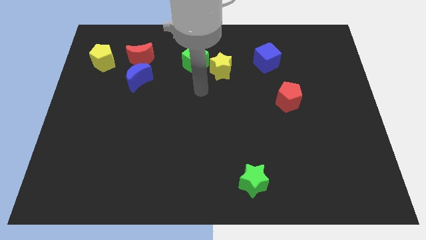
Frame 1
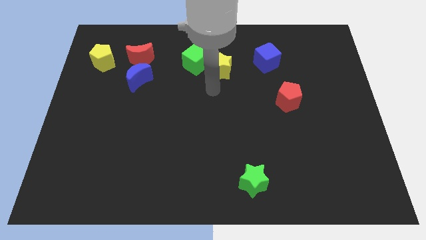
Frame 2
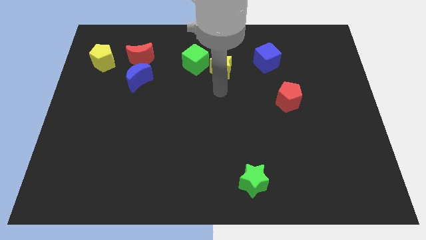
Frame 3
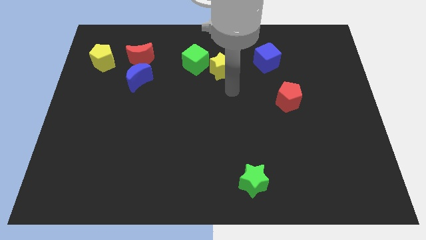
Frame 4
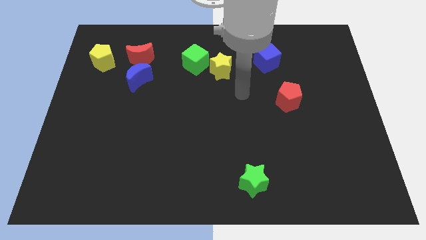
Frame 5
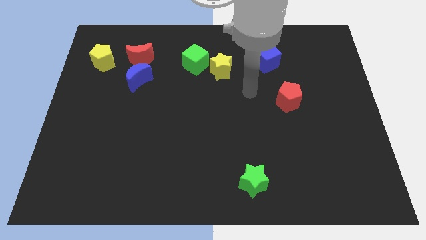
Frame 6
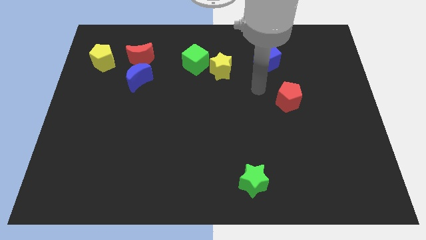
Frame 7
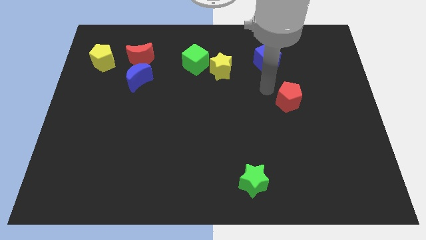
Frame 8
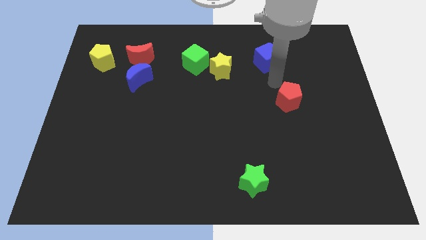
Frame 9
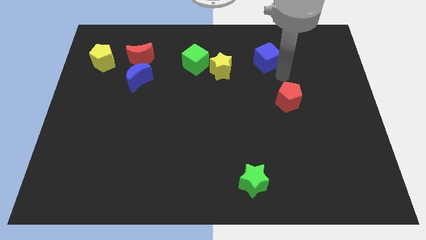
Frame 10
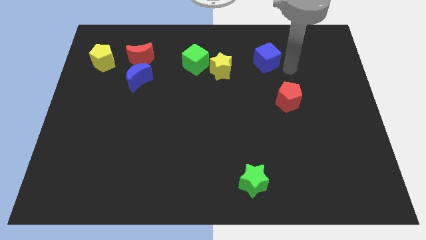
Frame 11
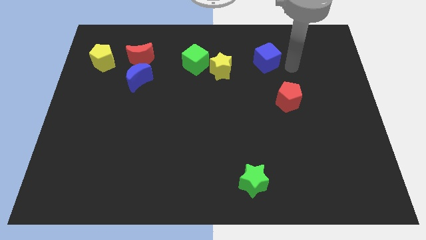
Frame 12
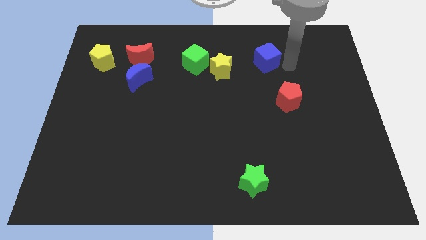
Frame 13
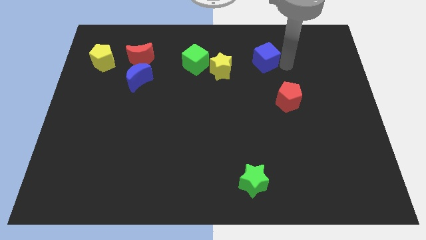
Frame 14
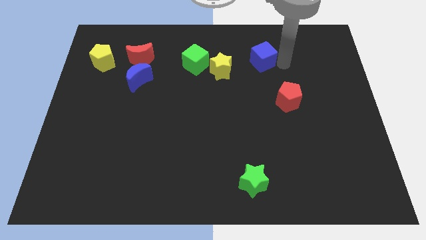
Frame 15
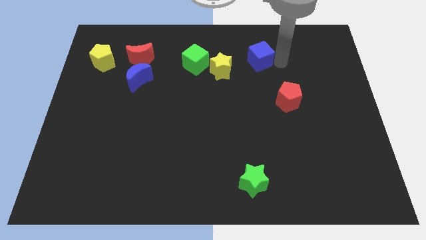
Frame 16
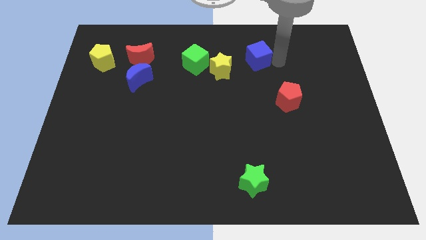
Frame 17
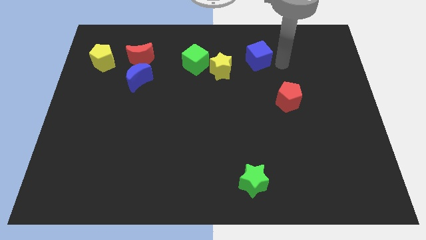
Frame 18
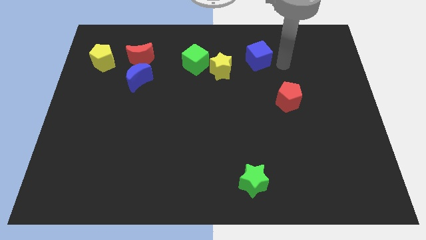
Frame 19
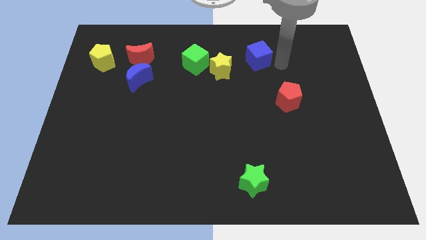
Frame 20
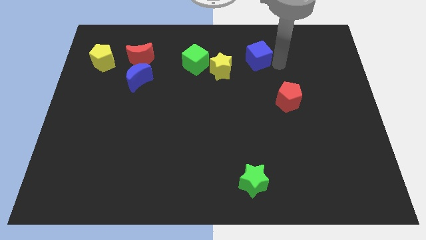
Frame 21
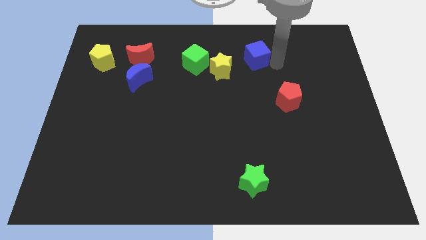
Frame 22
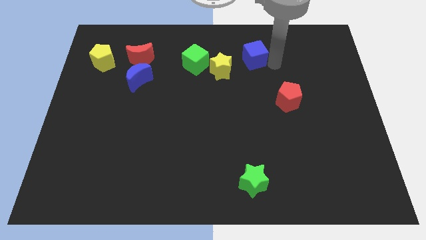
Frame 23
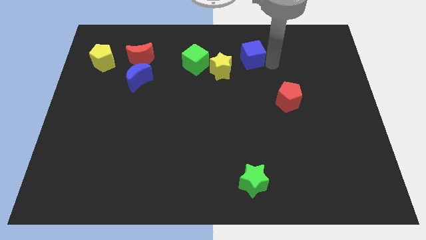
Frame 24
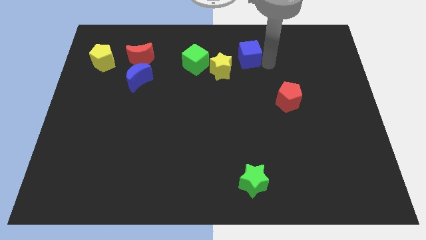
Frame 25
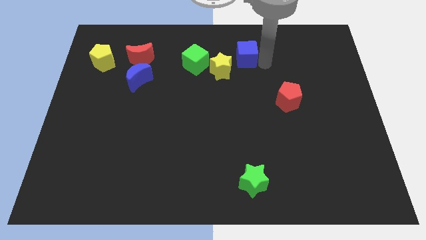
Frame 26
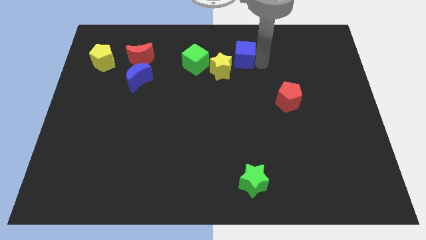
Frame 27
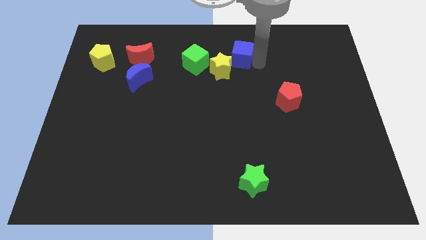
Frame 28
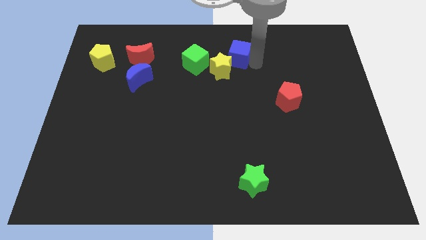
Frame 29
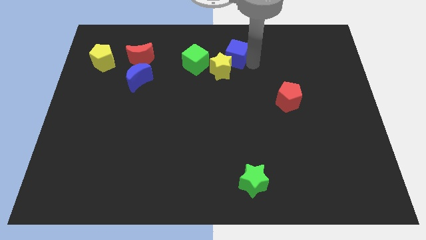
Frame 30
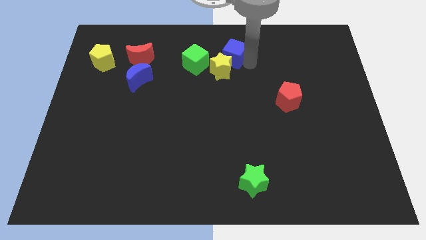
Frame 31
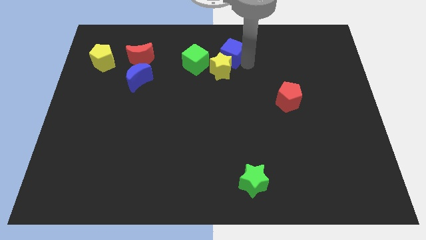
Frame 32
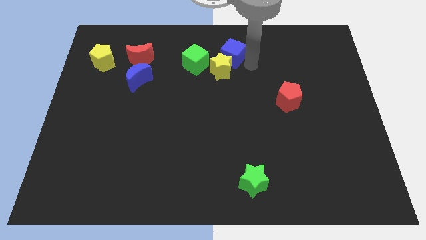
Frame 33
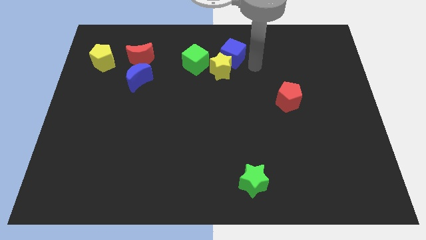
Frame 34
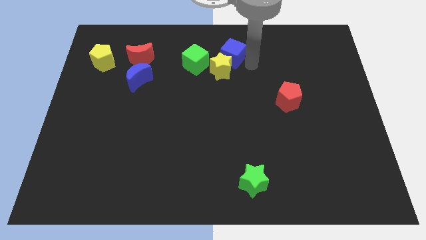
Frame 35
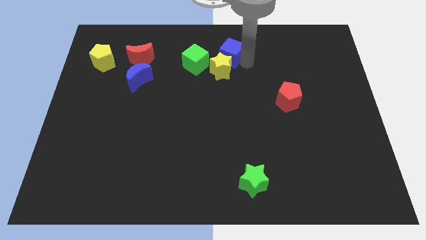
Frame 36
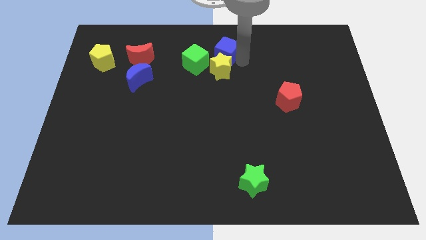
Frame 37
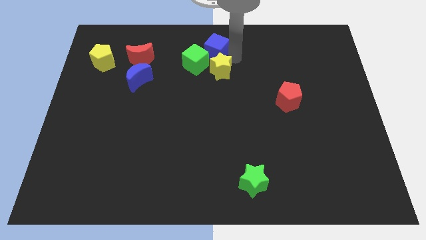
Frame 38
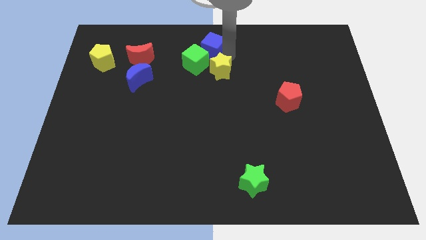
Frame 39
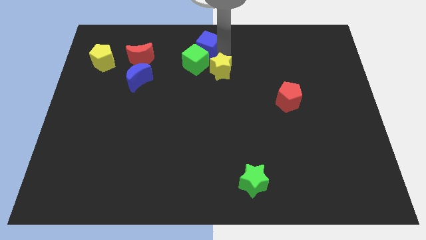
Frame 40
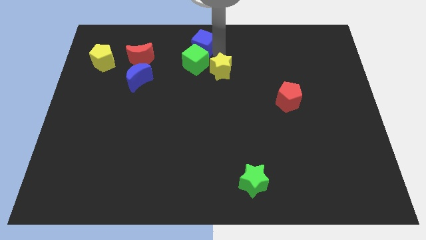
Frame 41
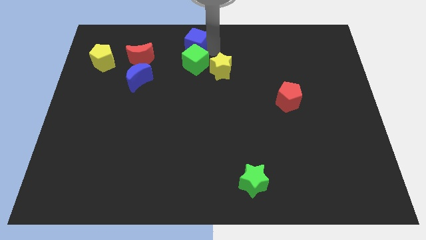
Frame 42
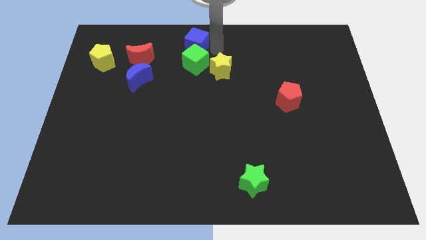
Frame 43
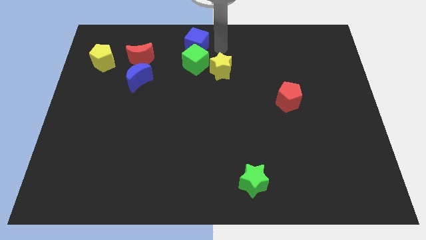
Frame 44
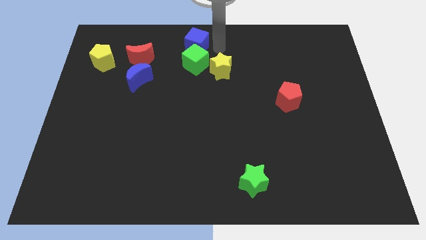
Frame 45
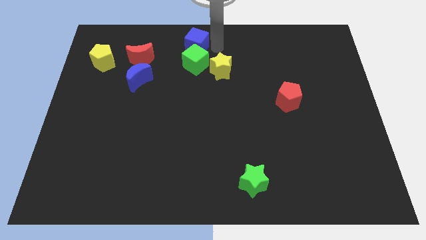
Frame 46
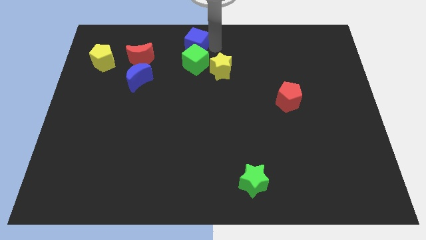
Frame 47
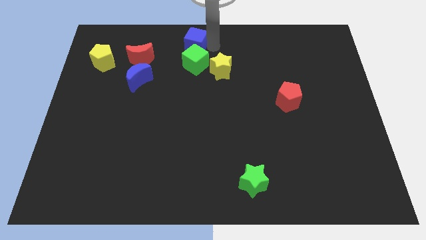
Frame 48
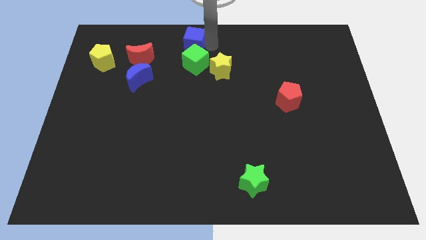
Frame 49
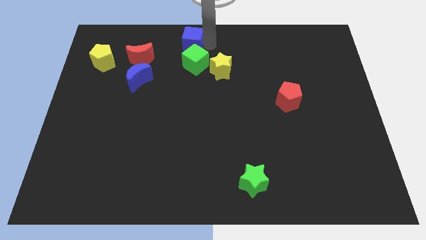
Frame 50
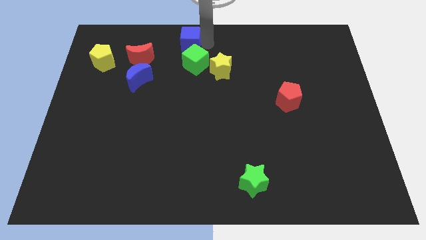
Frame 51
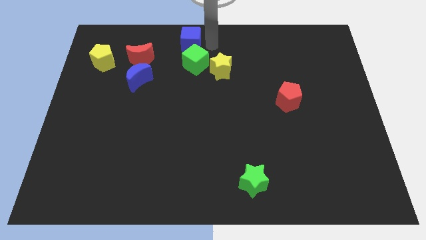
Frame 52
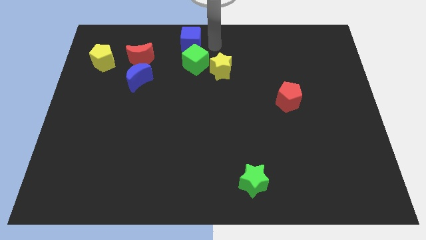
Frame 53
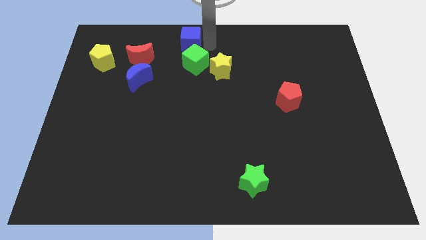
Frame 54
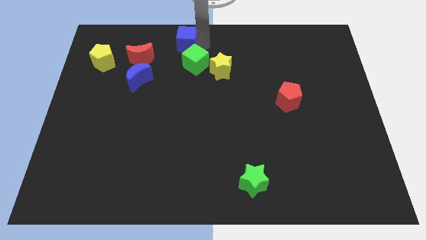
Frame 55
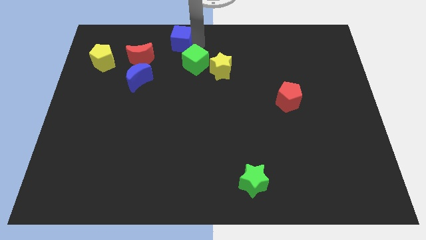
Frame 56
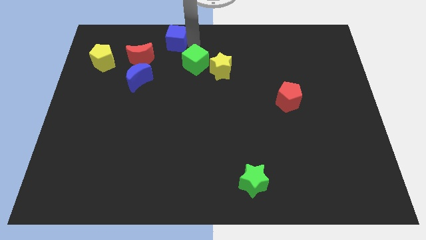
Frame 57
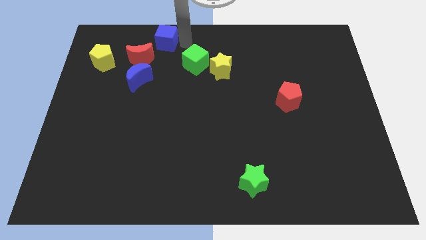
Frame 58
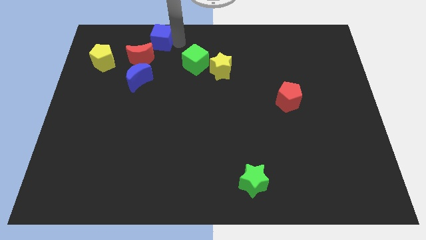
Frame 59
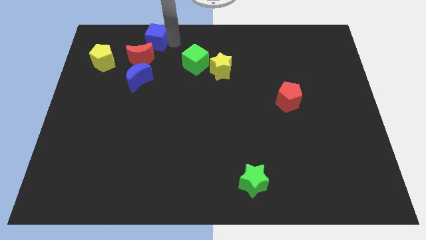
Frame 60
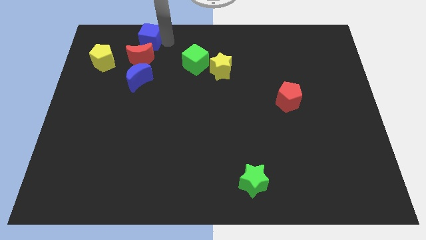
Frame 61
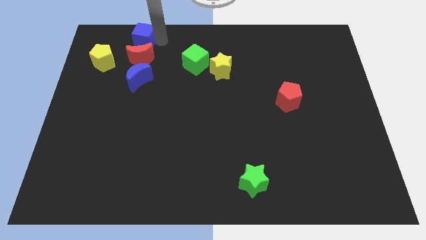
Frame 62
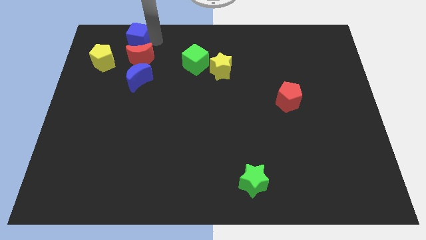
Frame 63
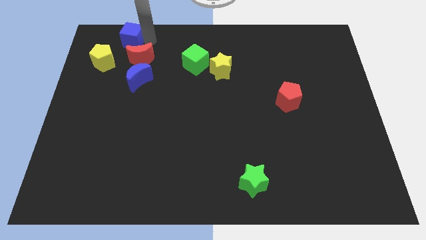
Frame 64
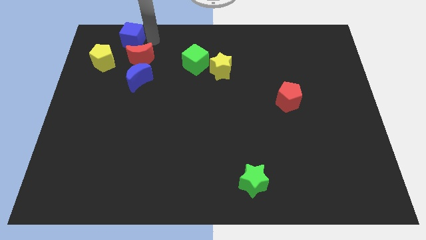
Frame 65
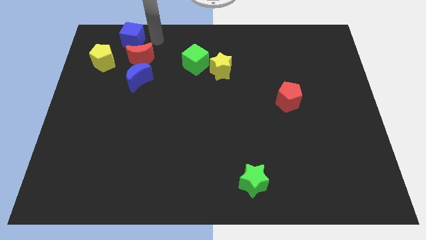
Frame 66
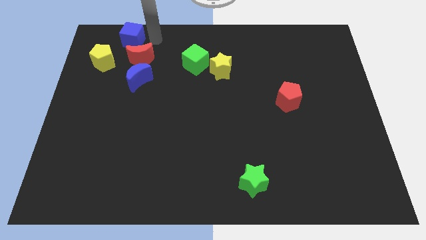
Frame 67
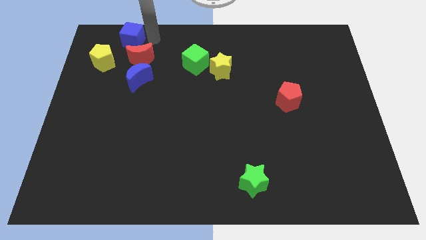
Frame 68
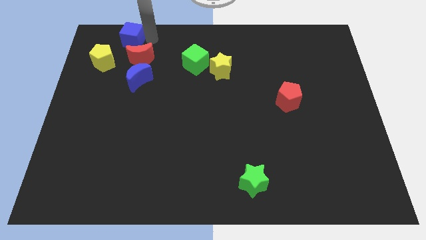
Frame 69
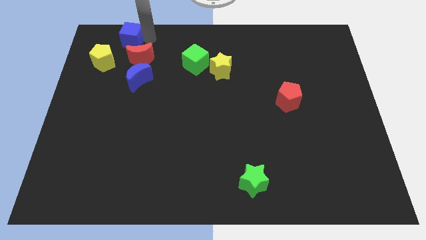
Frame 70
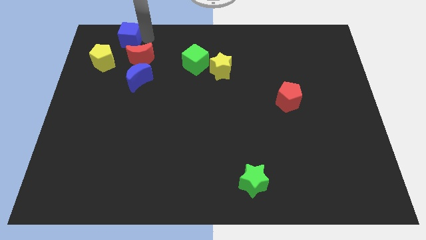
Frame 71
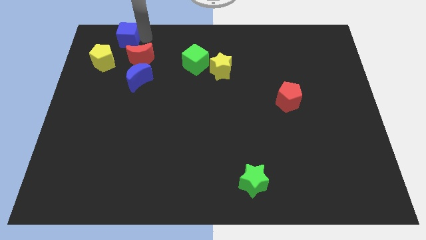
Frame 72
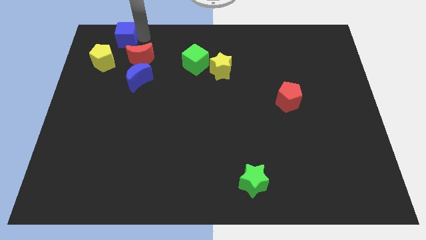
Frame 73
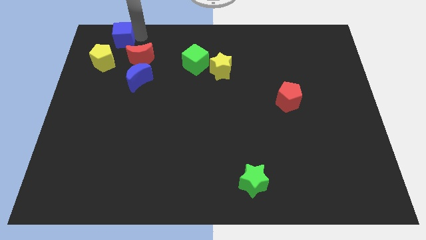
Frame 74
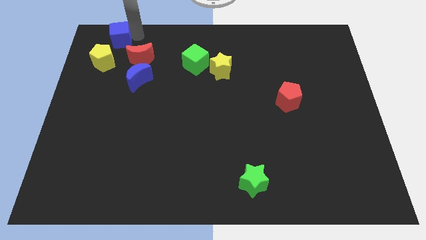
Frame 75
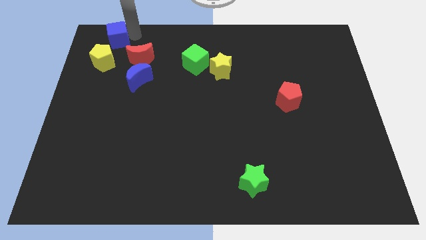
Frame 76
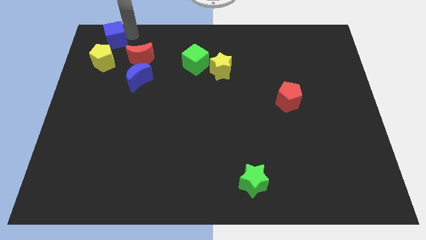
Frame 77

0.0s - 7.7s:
move the blue cube to the upper left corner
